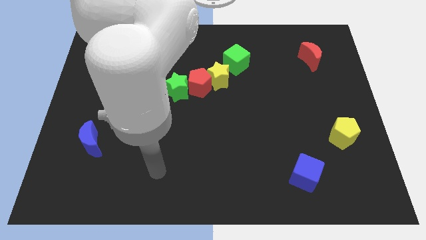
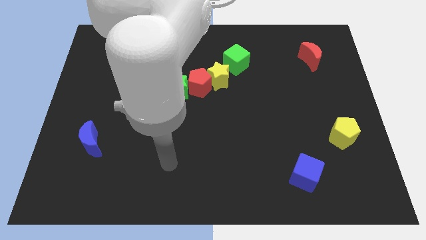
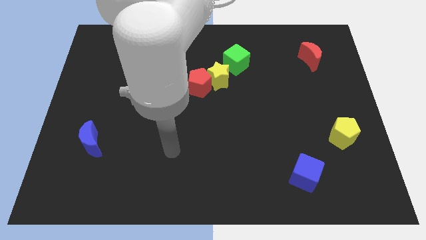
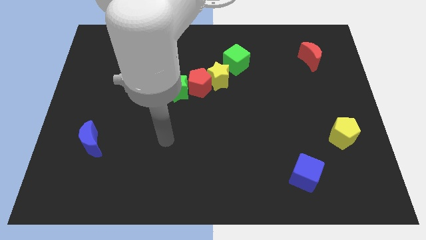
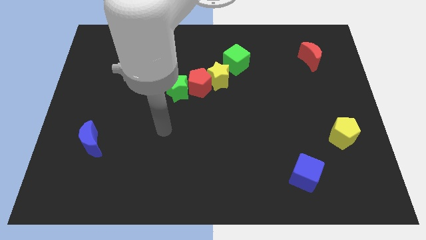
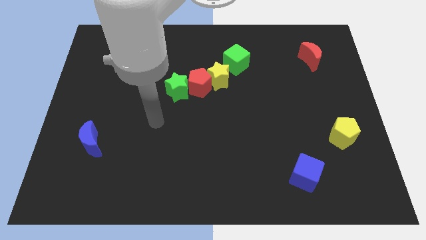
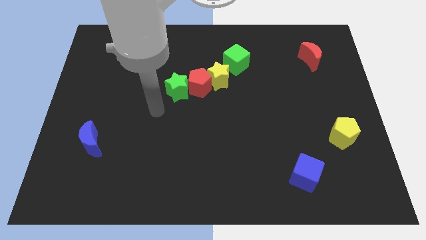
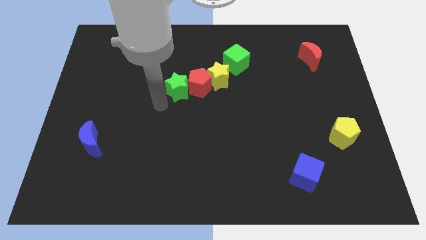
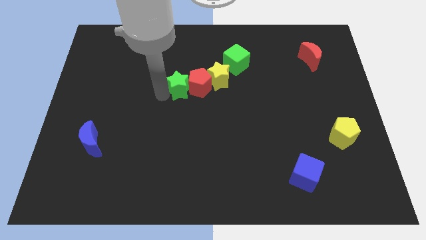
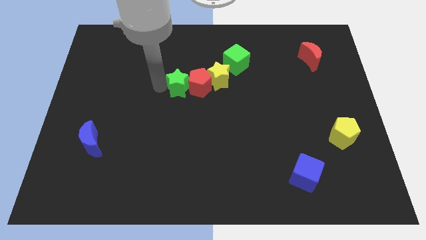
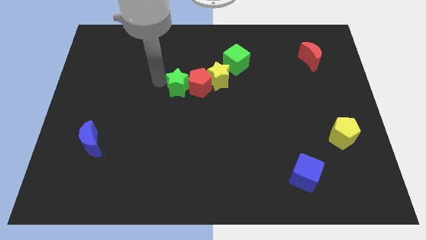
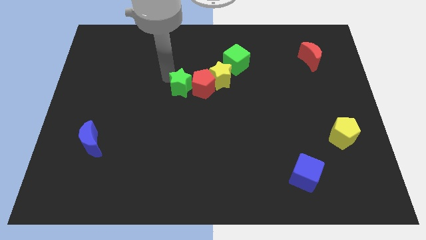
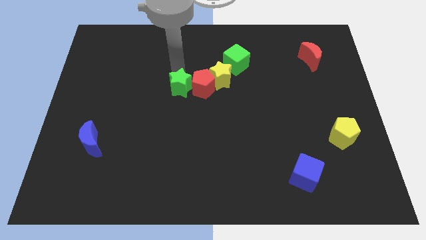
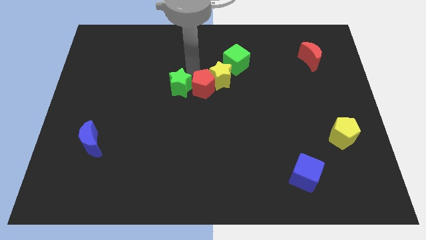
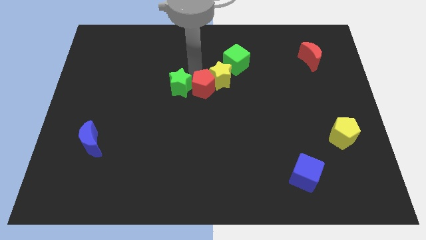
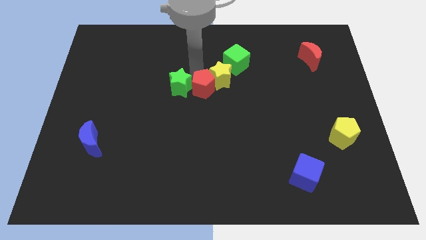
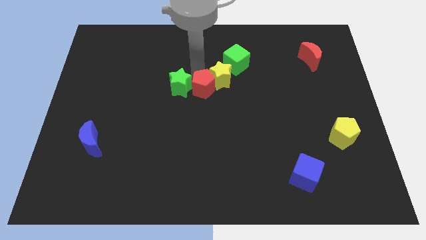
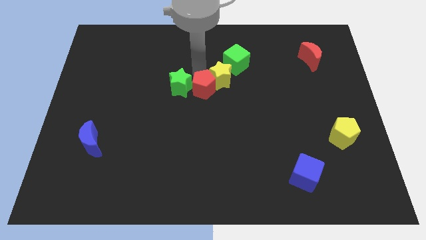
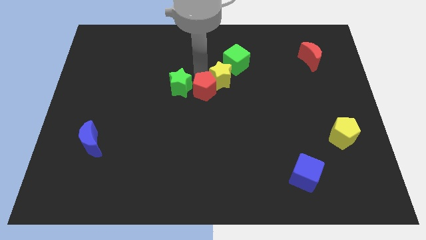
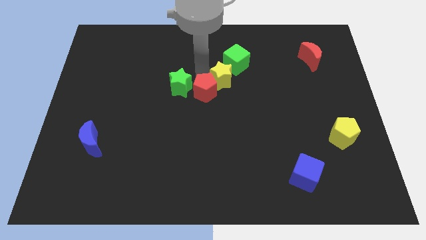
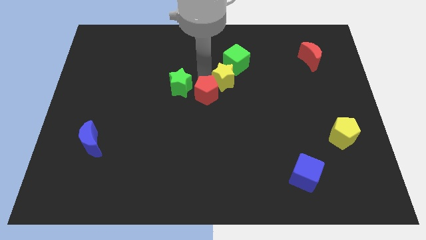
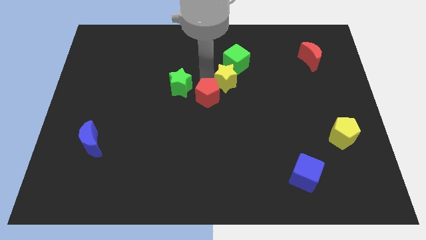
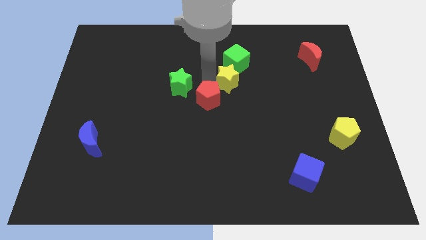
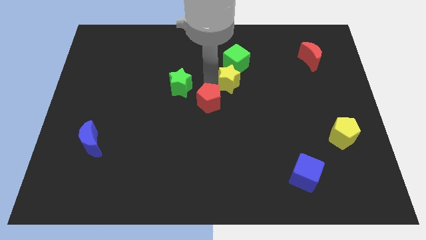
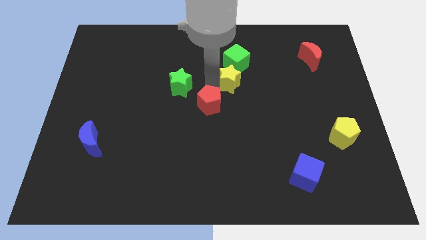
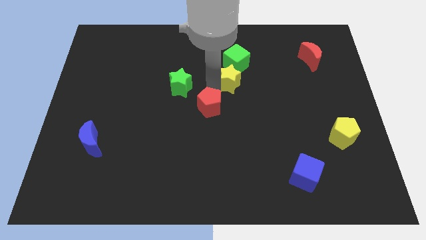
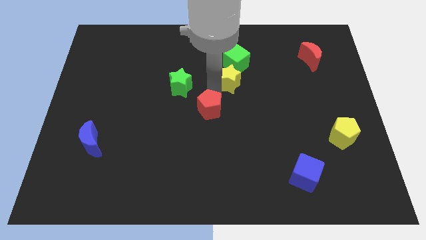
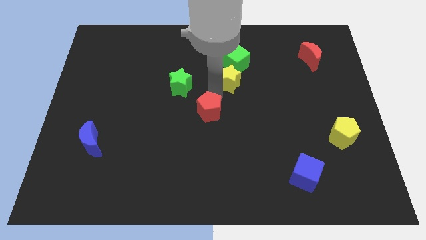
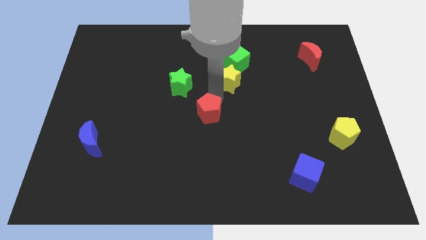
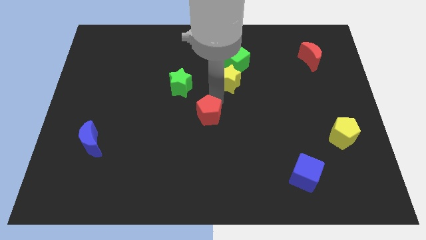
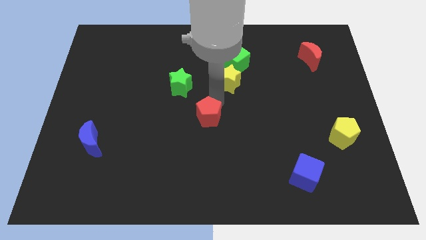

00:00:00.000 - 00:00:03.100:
separate the red pentagon from the yellow star and green star

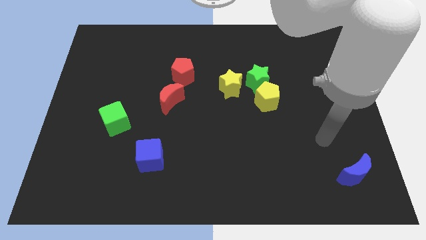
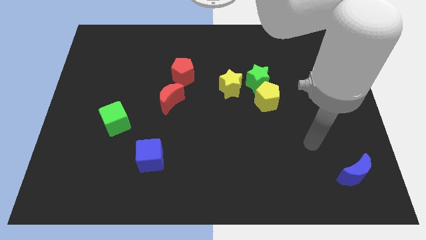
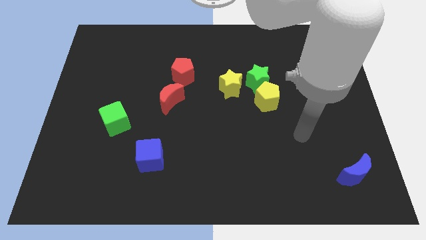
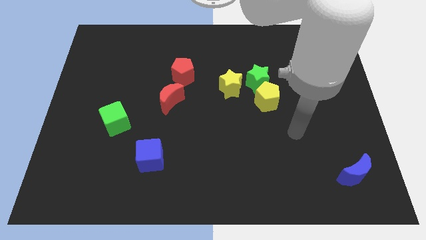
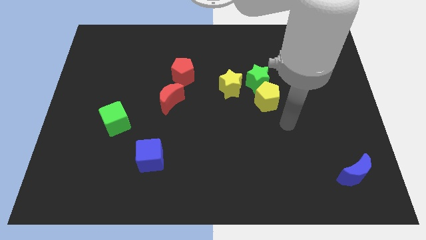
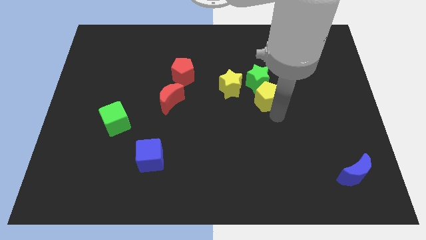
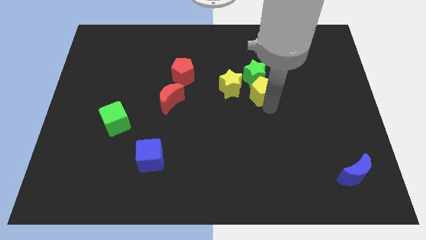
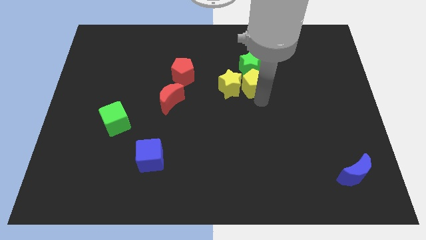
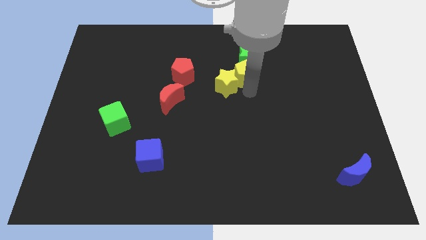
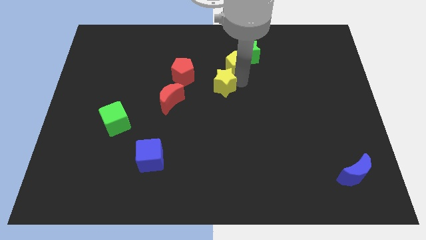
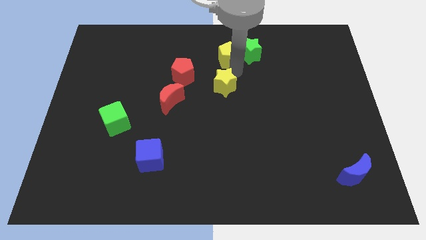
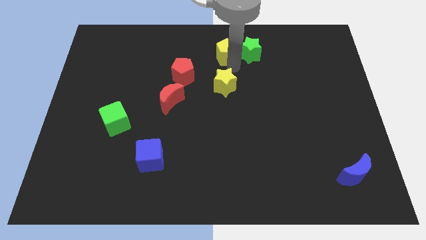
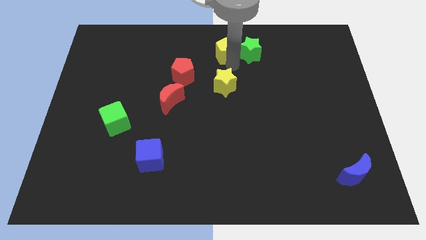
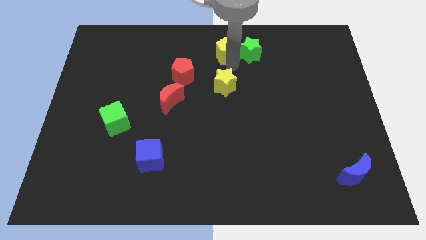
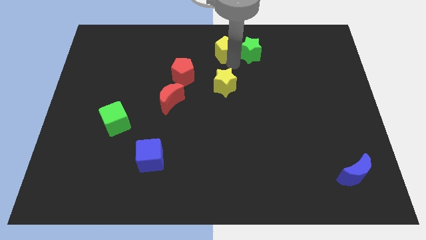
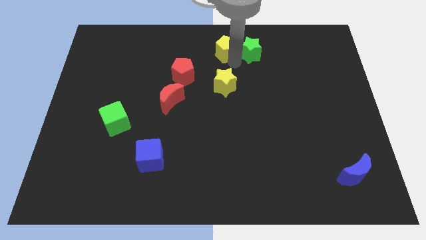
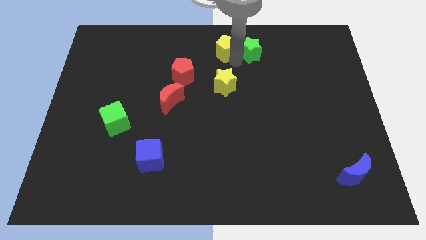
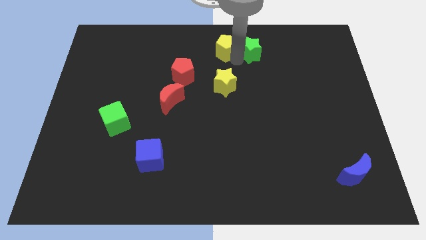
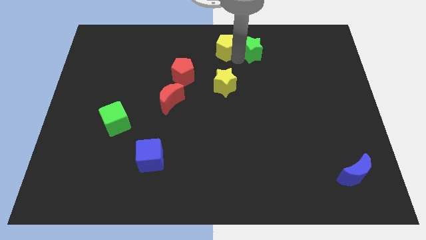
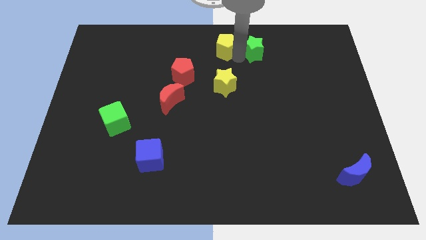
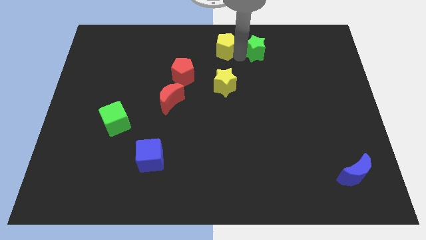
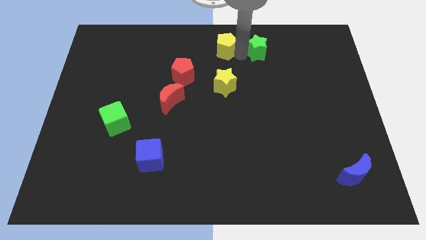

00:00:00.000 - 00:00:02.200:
move the green star away from the yellow pentagon and yellow star

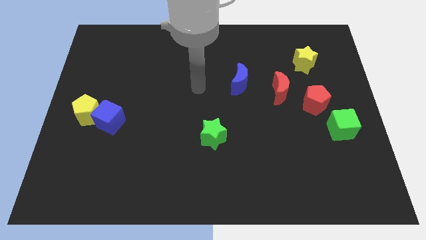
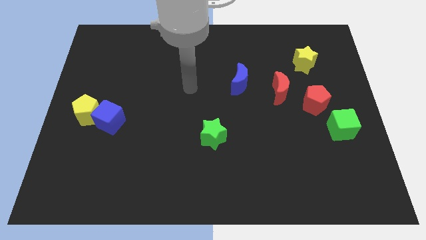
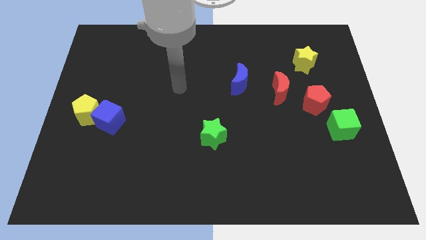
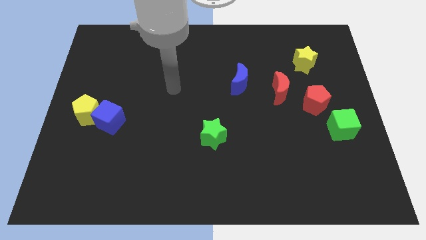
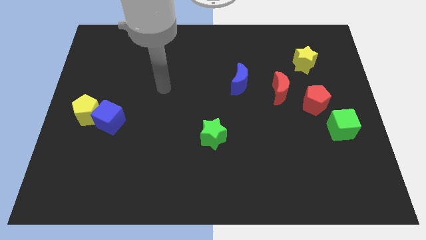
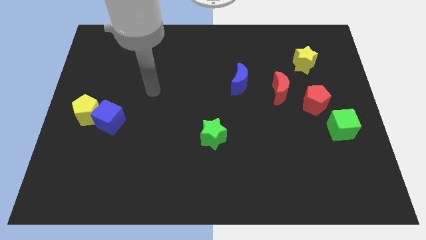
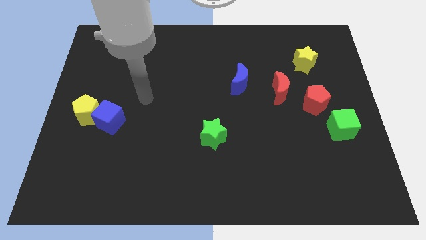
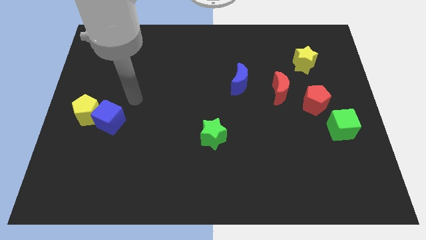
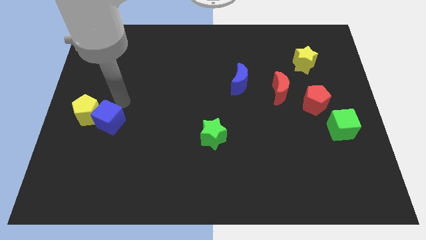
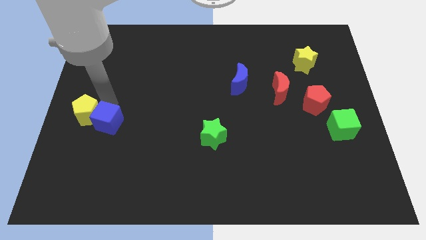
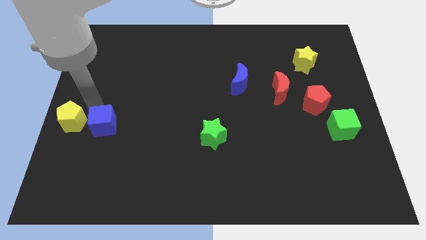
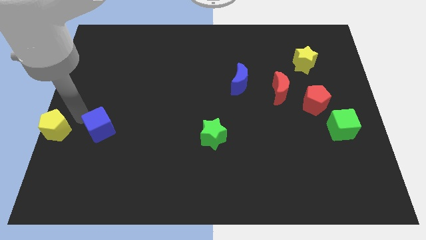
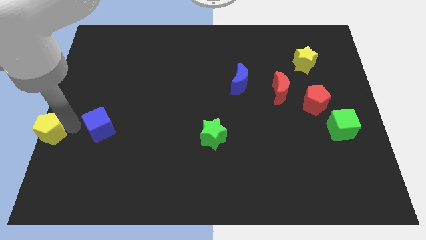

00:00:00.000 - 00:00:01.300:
move the blue cube away from the yellow pentagon

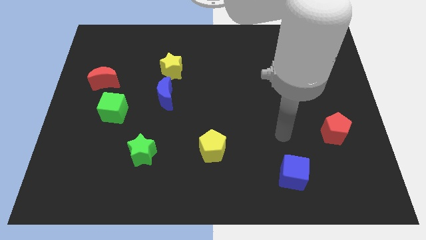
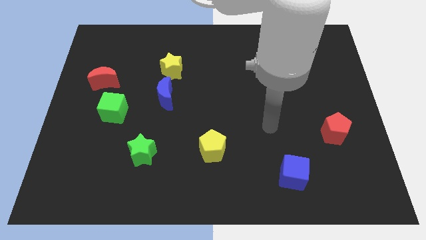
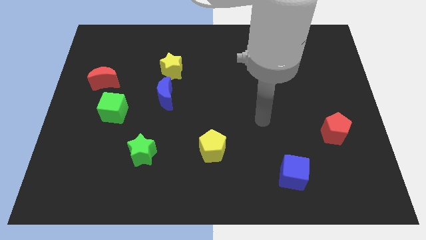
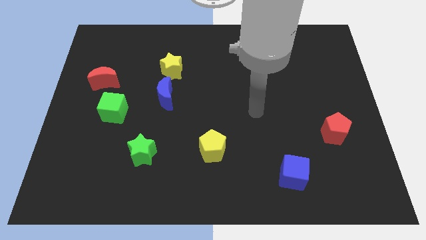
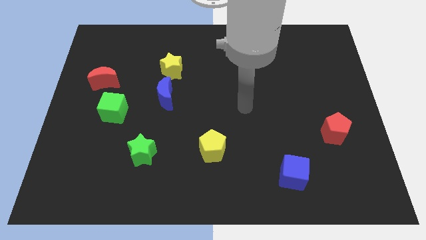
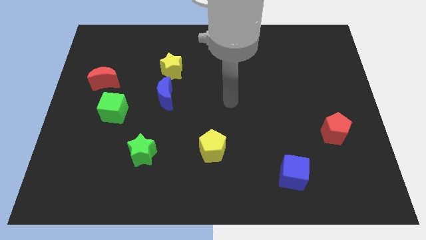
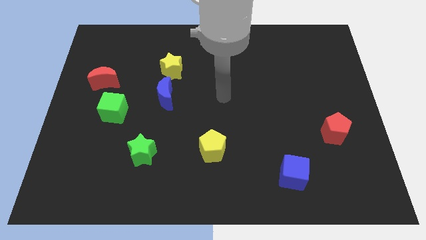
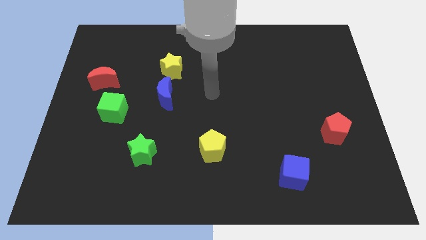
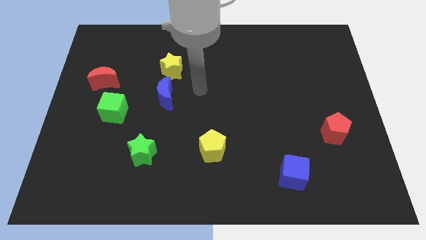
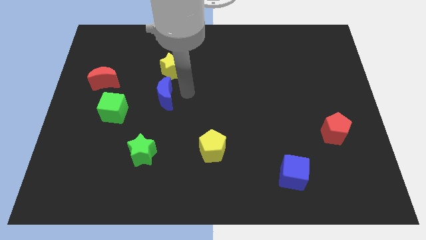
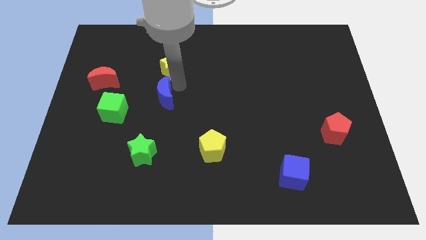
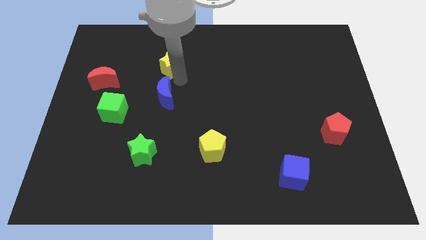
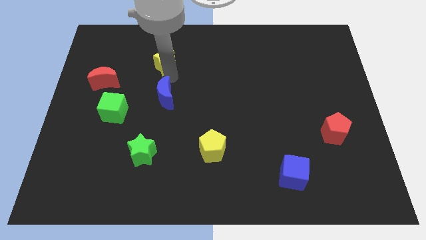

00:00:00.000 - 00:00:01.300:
pull the blue moon apart from the yellow star

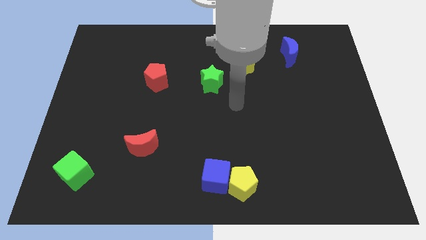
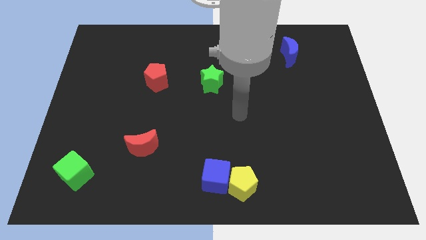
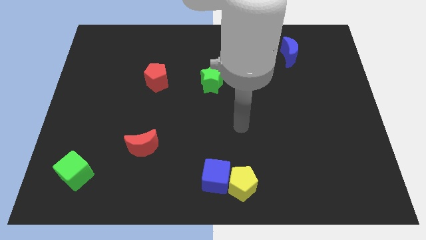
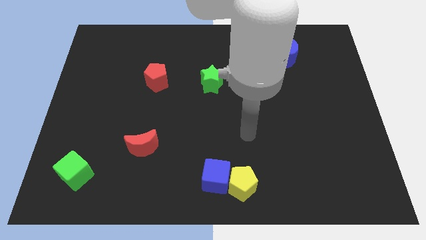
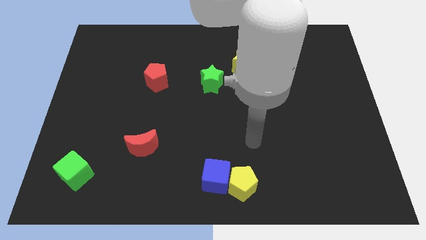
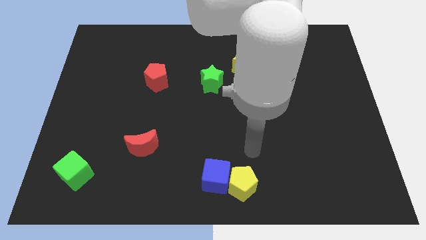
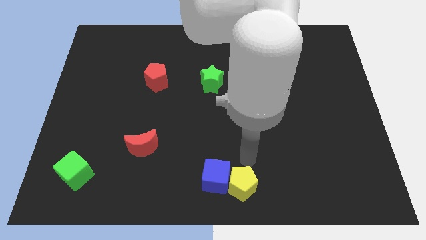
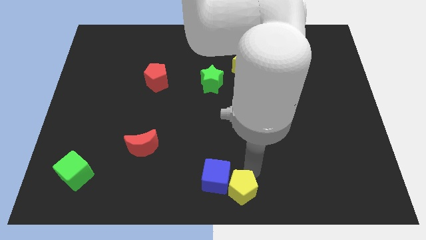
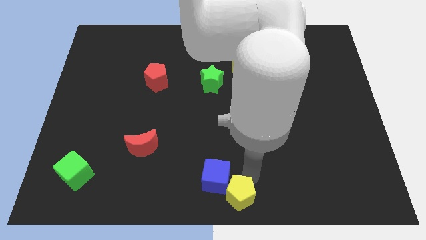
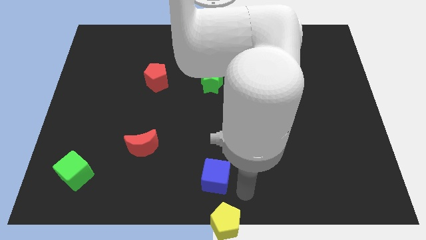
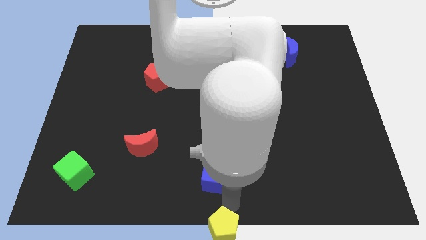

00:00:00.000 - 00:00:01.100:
pull the blue cube apart from the yellow pentagon

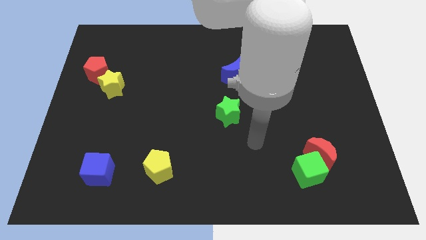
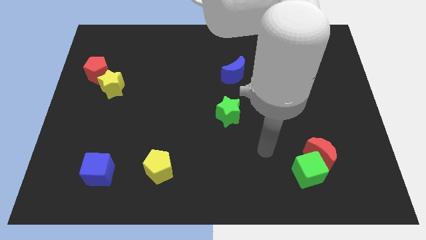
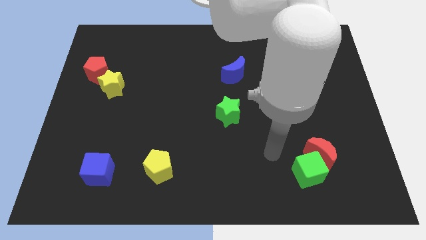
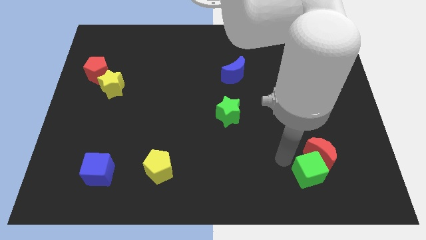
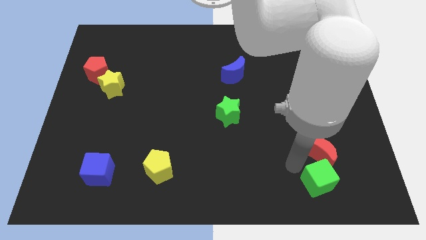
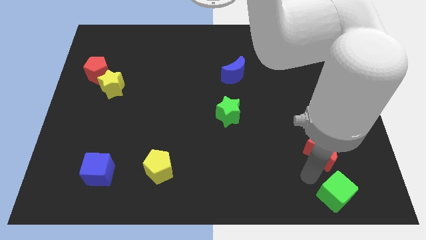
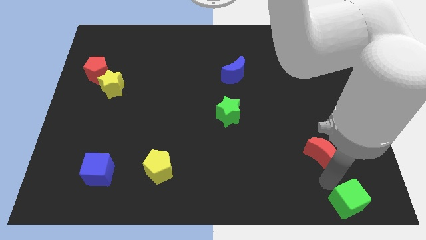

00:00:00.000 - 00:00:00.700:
pull the red moon apart from the green cube
